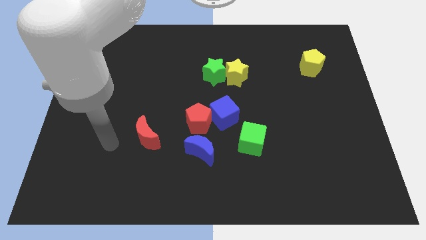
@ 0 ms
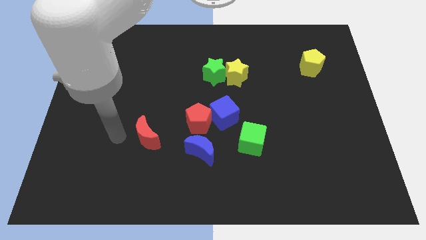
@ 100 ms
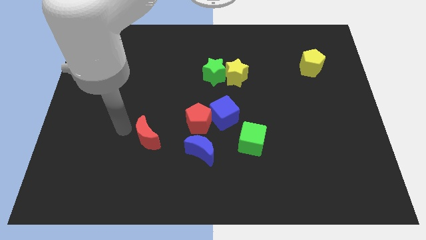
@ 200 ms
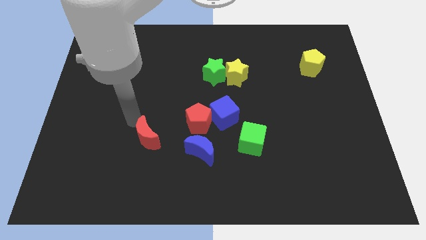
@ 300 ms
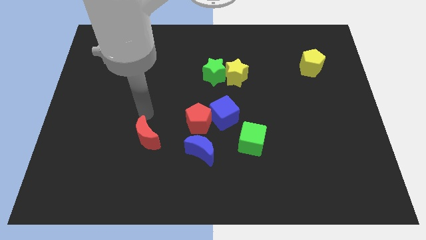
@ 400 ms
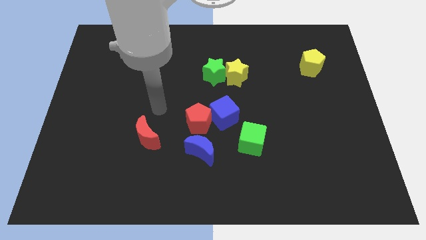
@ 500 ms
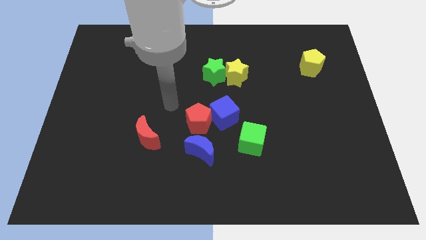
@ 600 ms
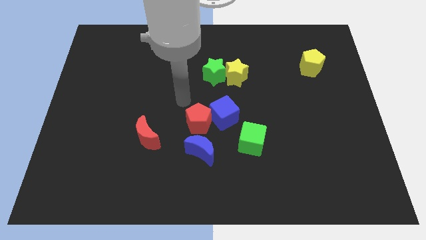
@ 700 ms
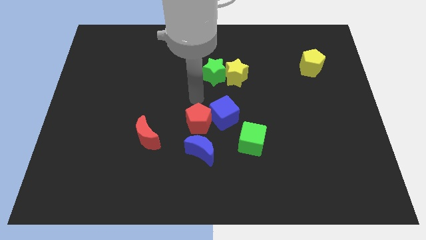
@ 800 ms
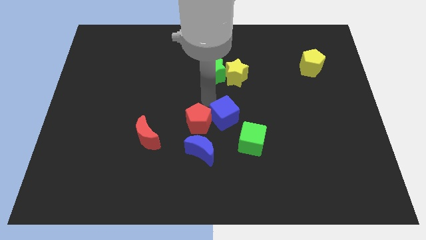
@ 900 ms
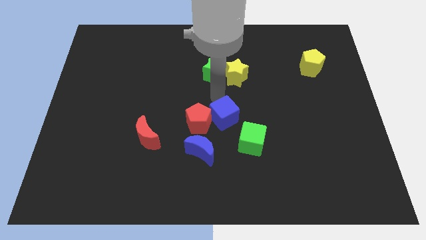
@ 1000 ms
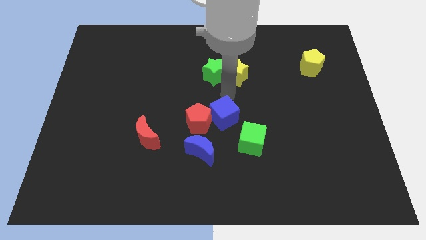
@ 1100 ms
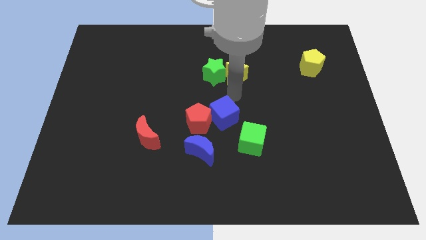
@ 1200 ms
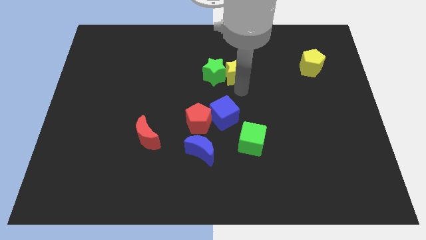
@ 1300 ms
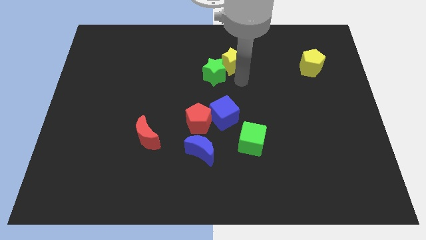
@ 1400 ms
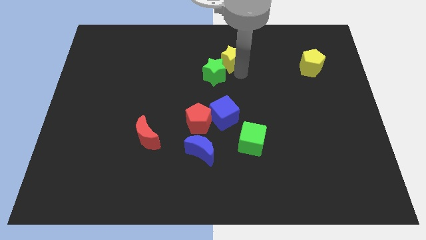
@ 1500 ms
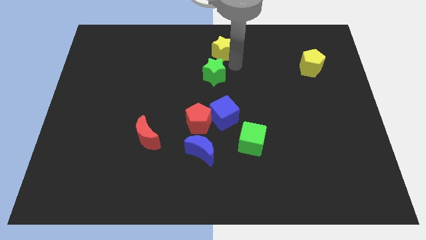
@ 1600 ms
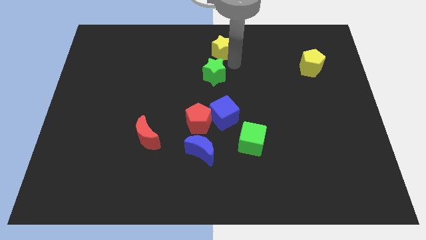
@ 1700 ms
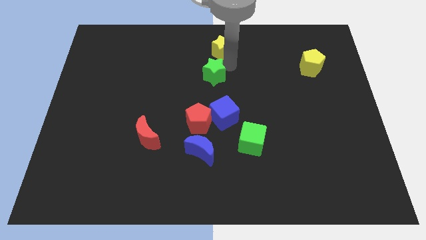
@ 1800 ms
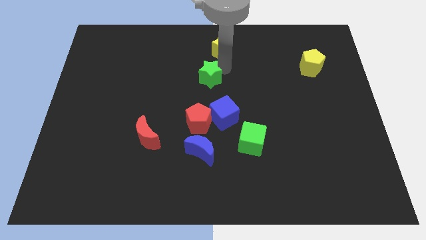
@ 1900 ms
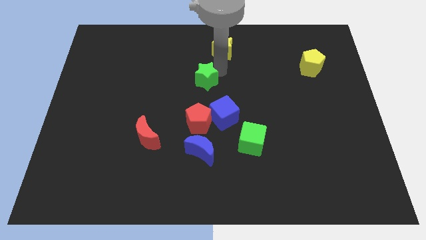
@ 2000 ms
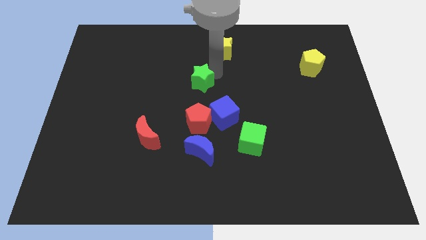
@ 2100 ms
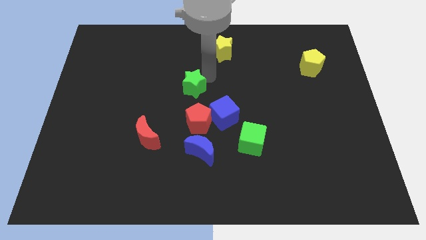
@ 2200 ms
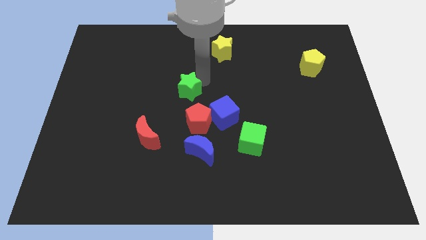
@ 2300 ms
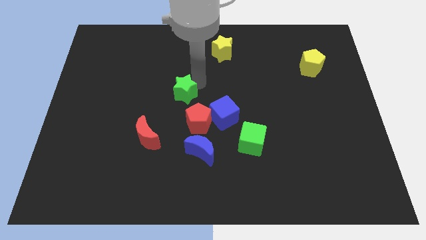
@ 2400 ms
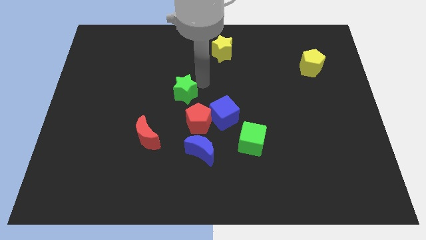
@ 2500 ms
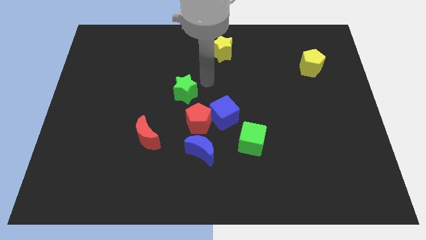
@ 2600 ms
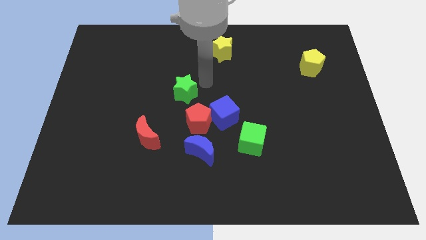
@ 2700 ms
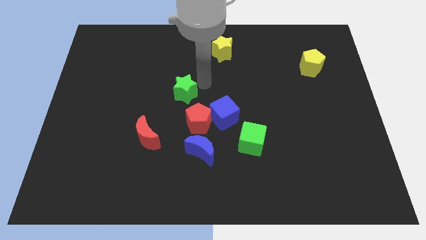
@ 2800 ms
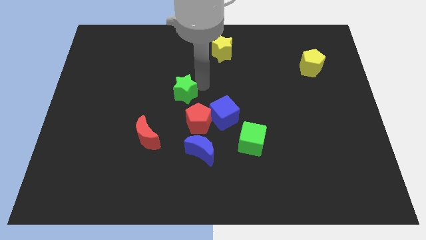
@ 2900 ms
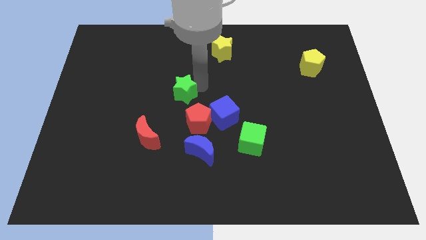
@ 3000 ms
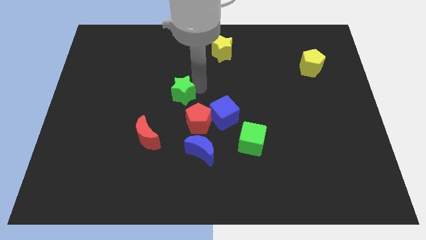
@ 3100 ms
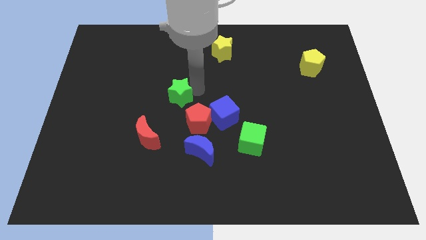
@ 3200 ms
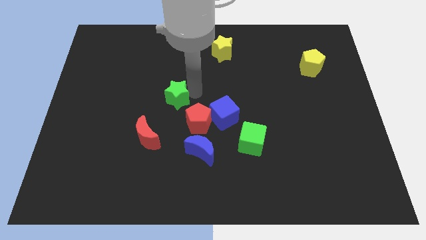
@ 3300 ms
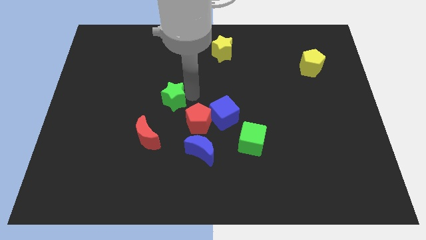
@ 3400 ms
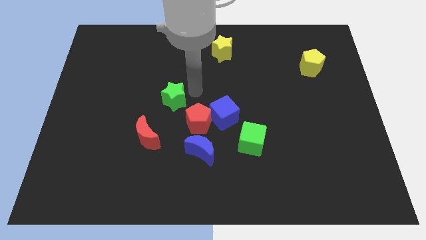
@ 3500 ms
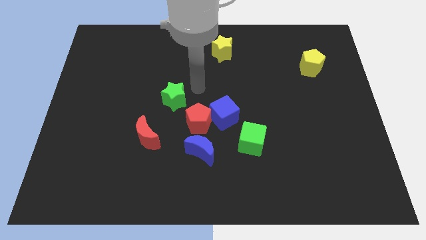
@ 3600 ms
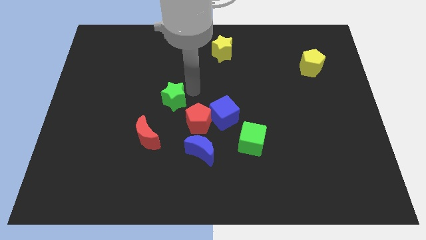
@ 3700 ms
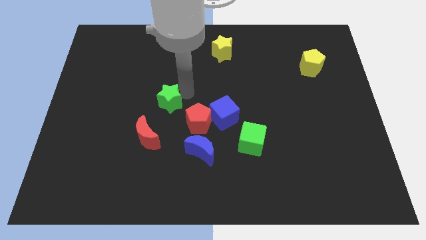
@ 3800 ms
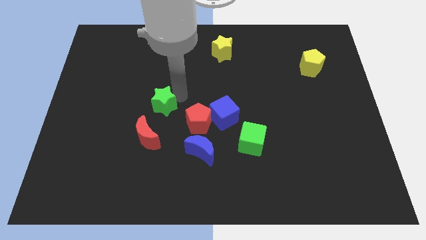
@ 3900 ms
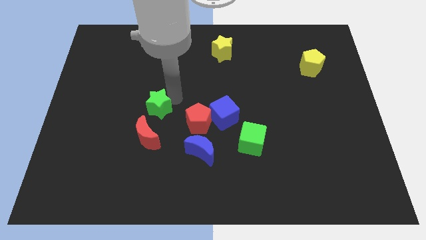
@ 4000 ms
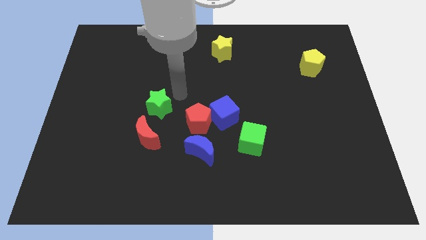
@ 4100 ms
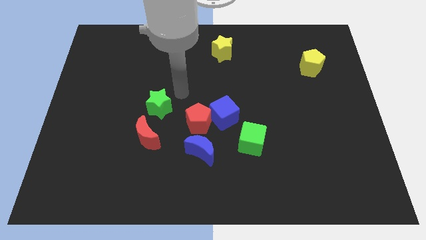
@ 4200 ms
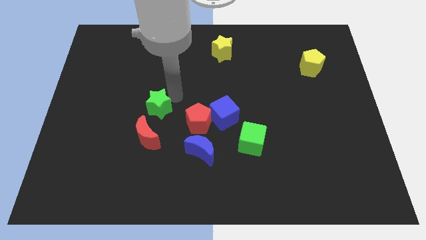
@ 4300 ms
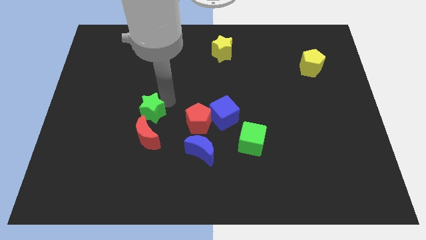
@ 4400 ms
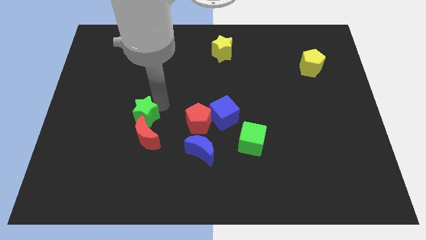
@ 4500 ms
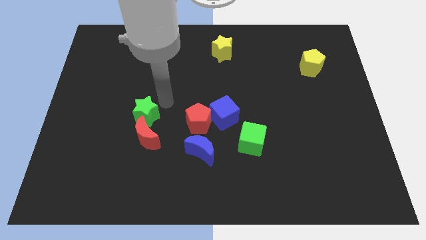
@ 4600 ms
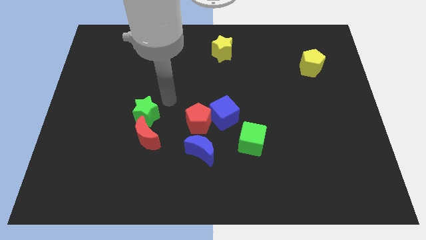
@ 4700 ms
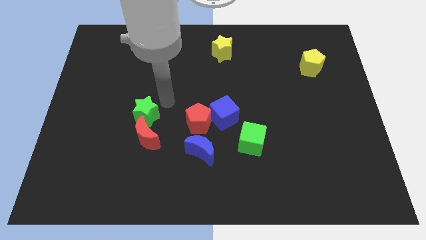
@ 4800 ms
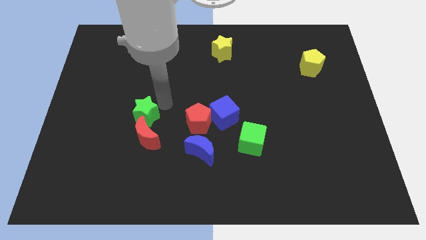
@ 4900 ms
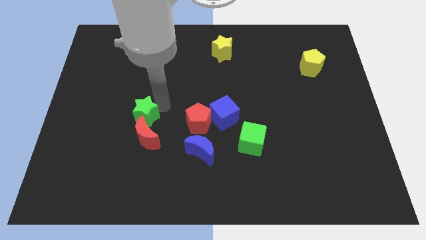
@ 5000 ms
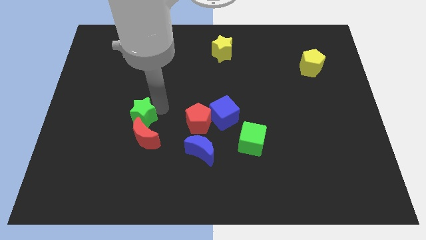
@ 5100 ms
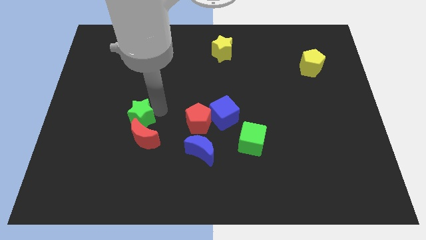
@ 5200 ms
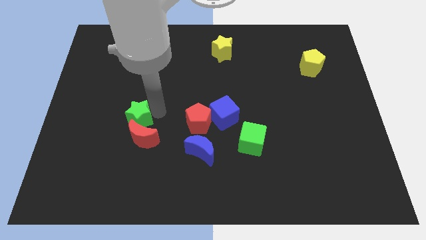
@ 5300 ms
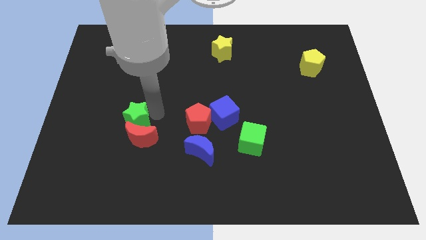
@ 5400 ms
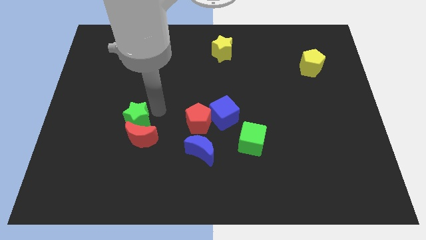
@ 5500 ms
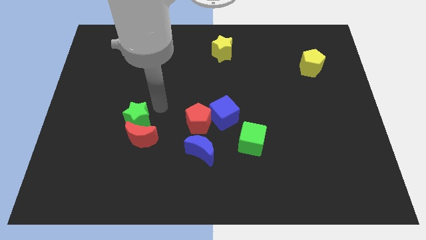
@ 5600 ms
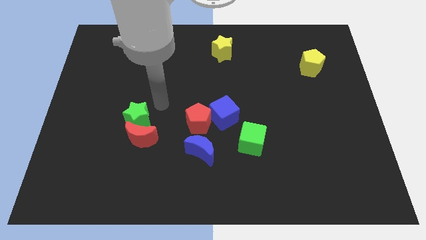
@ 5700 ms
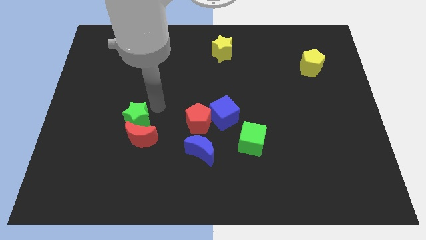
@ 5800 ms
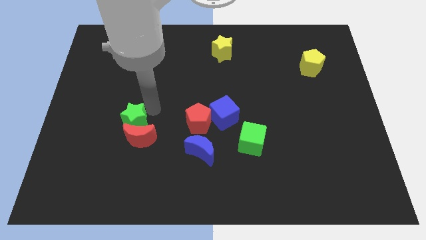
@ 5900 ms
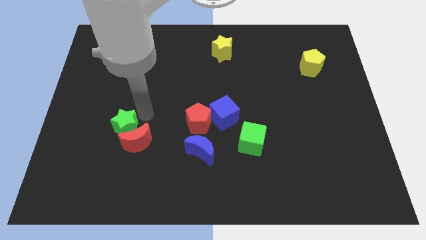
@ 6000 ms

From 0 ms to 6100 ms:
put the green star to the left side of the red moon

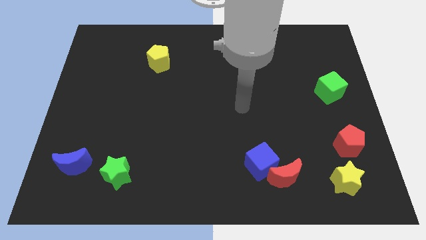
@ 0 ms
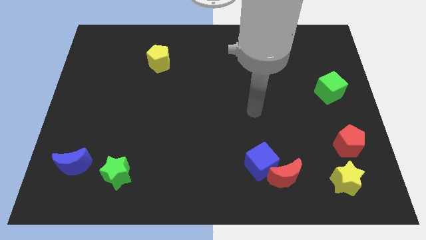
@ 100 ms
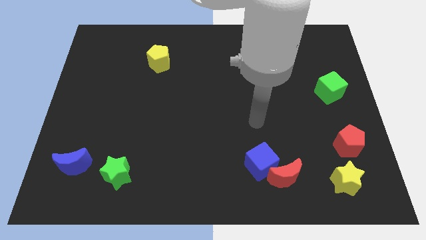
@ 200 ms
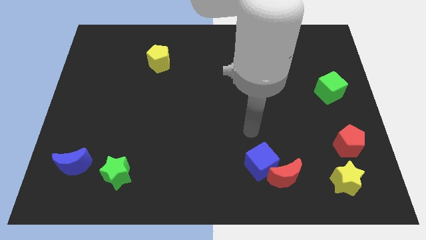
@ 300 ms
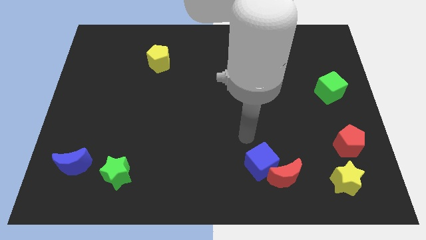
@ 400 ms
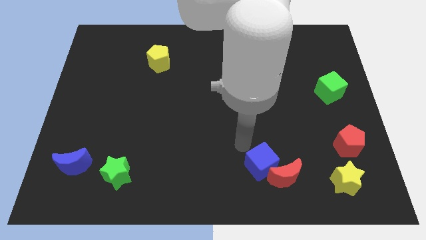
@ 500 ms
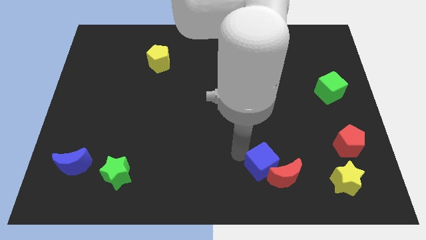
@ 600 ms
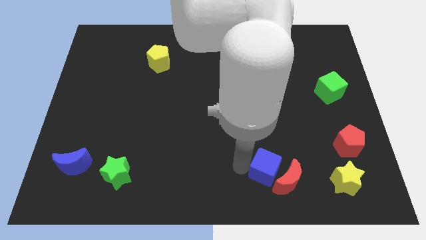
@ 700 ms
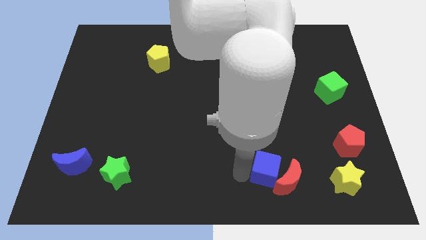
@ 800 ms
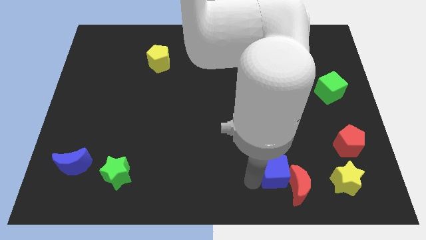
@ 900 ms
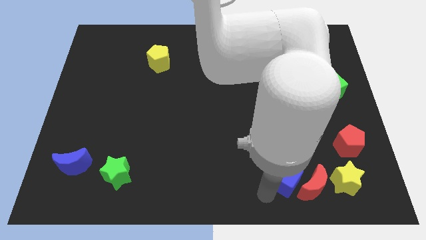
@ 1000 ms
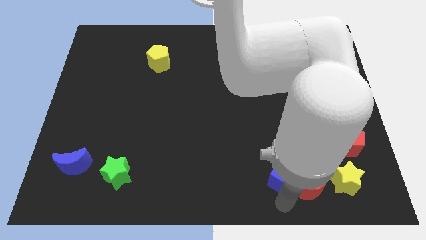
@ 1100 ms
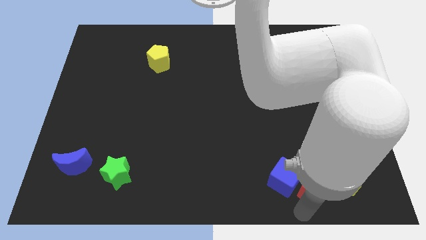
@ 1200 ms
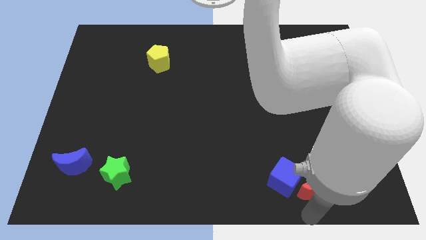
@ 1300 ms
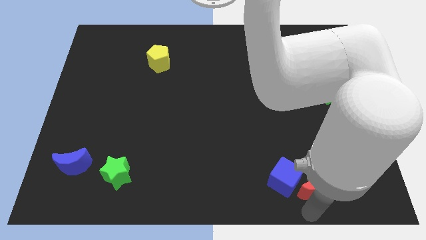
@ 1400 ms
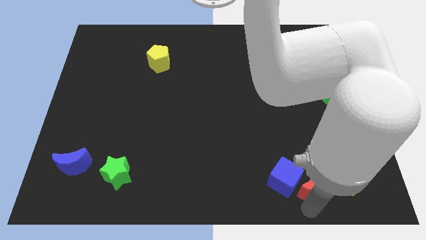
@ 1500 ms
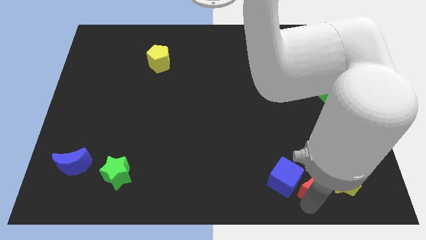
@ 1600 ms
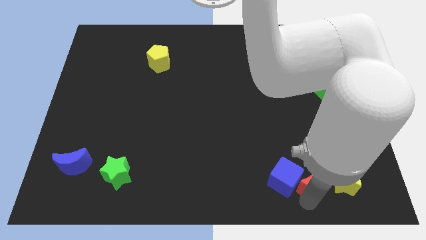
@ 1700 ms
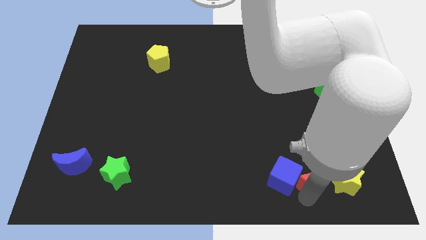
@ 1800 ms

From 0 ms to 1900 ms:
move the red moon diagonally up and to the left of the yellow star
